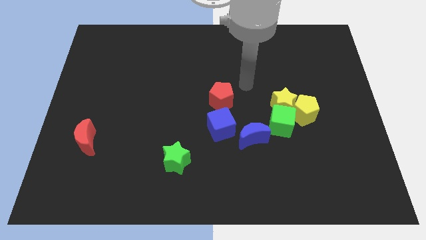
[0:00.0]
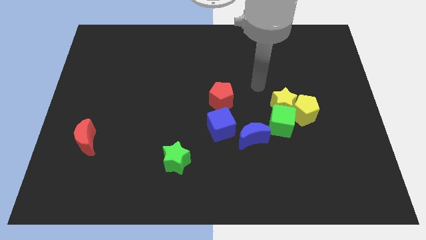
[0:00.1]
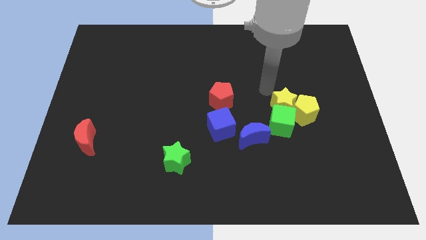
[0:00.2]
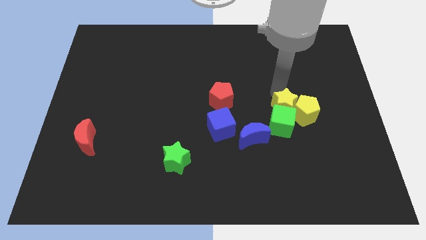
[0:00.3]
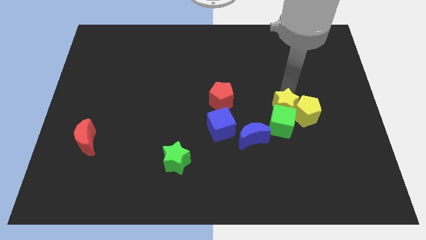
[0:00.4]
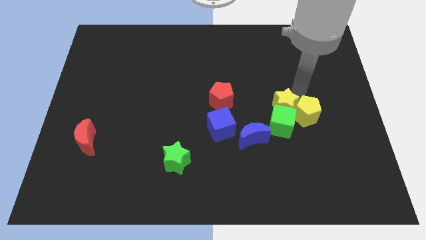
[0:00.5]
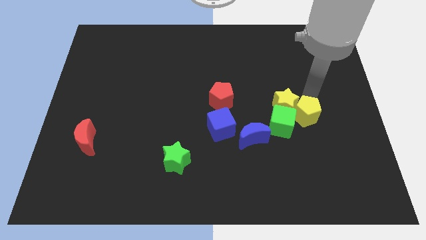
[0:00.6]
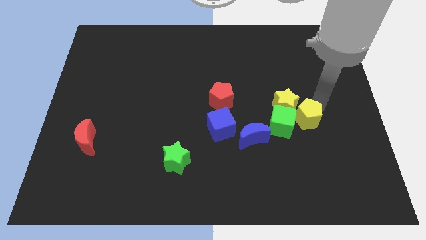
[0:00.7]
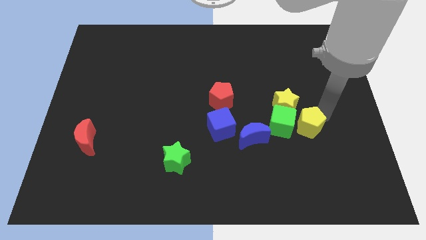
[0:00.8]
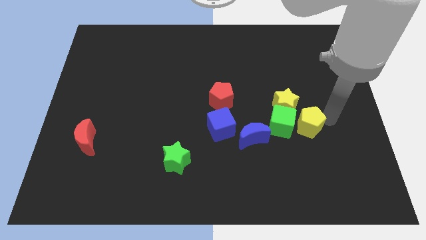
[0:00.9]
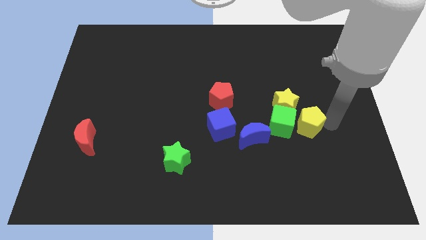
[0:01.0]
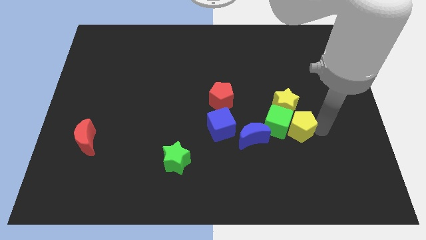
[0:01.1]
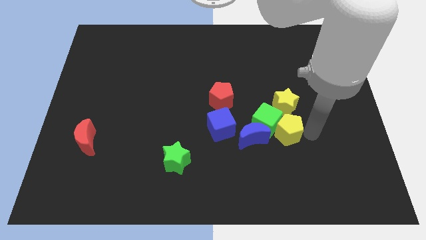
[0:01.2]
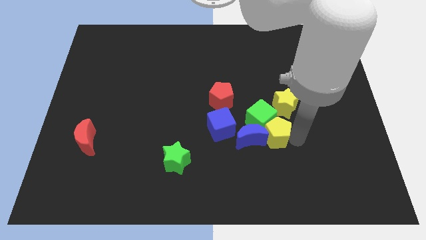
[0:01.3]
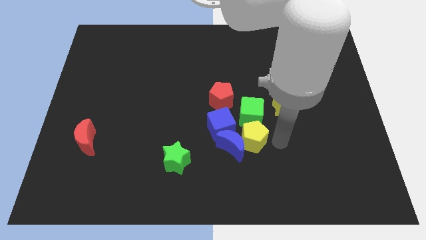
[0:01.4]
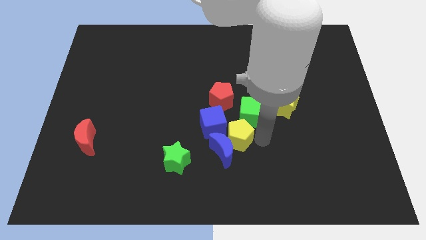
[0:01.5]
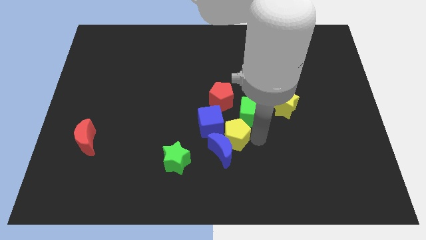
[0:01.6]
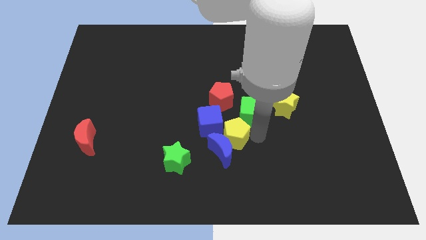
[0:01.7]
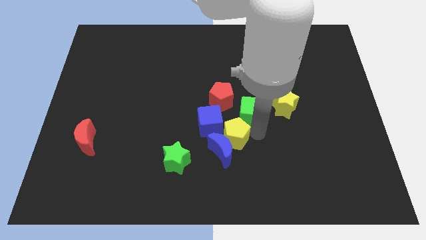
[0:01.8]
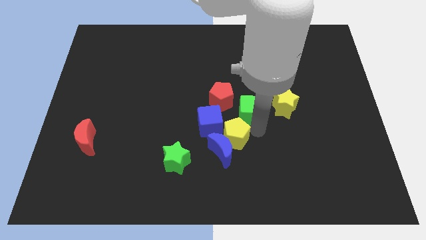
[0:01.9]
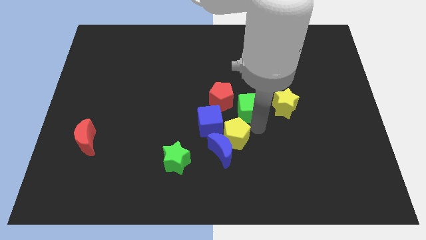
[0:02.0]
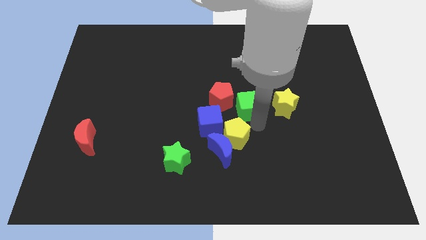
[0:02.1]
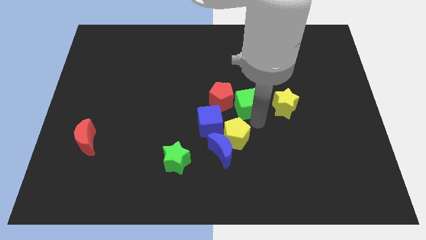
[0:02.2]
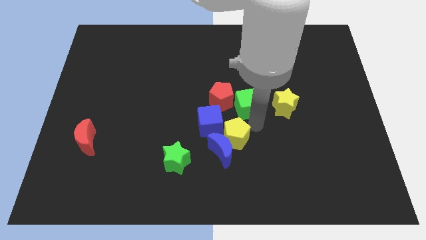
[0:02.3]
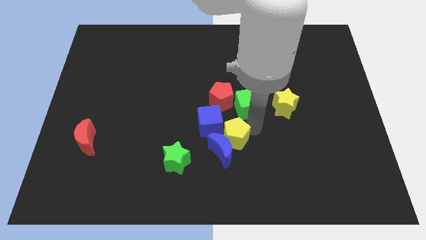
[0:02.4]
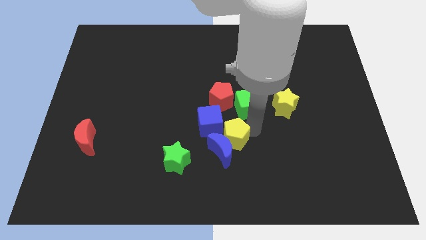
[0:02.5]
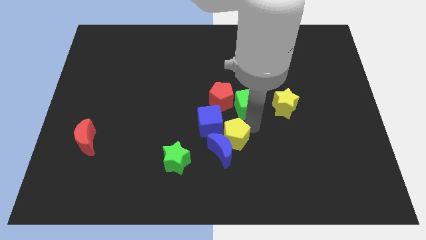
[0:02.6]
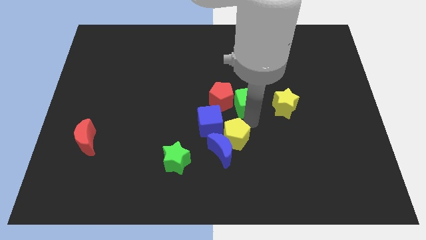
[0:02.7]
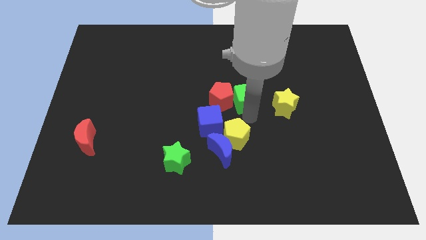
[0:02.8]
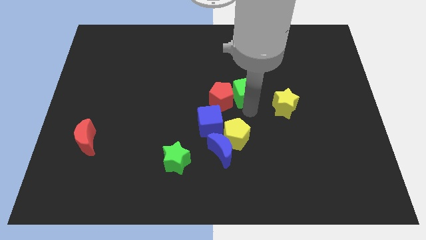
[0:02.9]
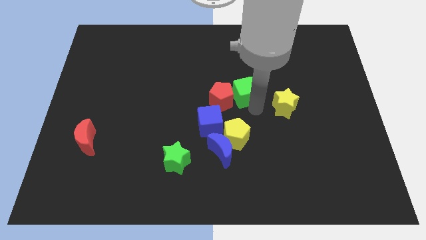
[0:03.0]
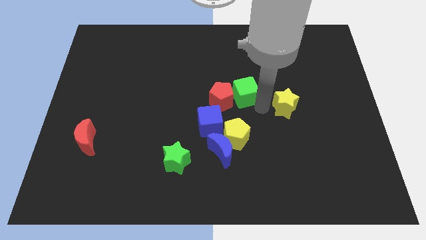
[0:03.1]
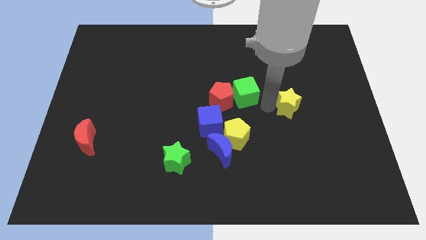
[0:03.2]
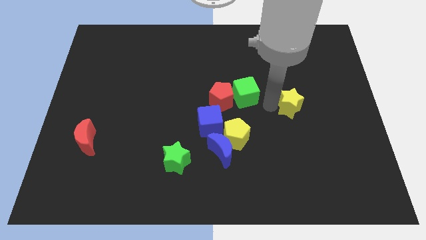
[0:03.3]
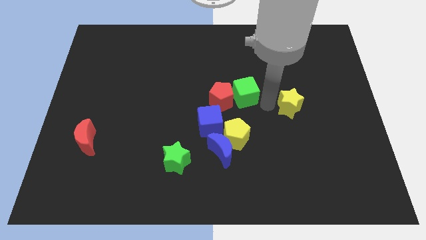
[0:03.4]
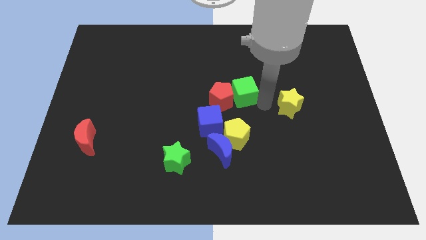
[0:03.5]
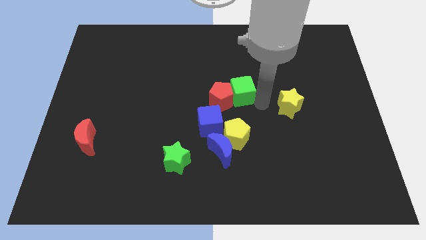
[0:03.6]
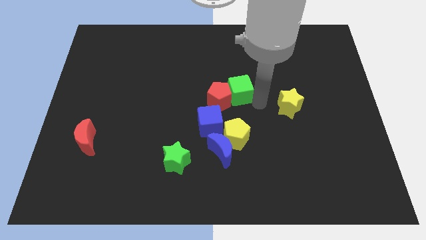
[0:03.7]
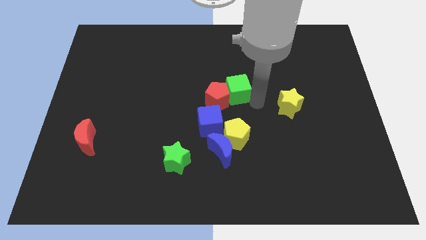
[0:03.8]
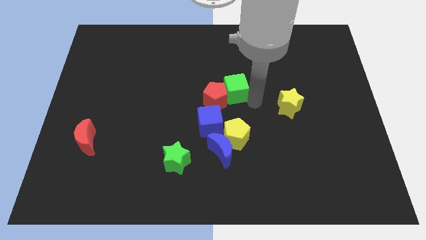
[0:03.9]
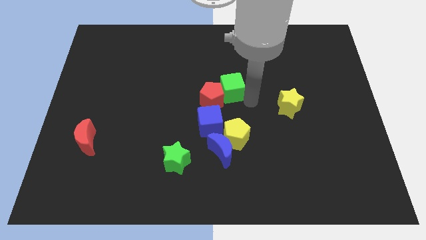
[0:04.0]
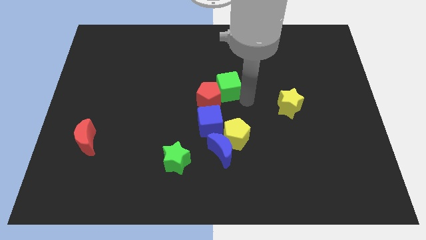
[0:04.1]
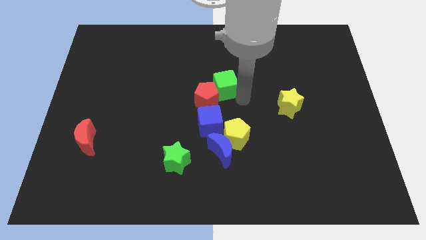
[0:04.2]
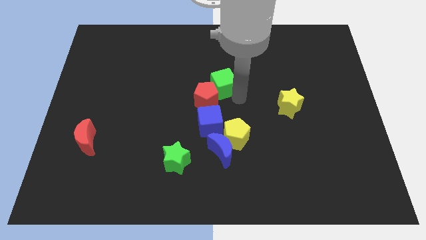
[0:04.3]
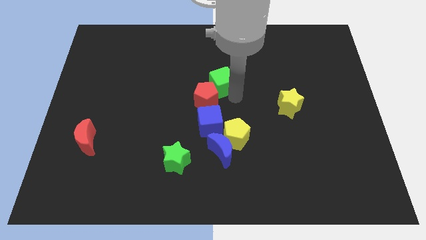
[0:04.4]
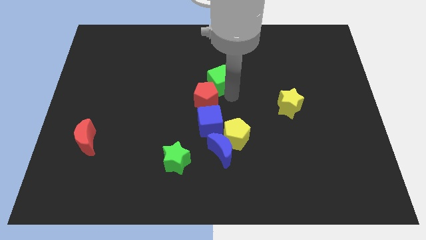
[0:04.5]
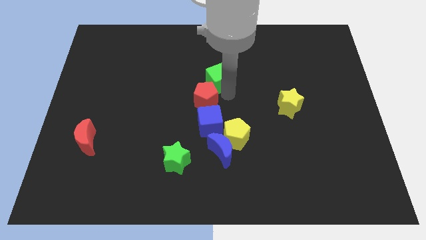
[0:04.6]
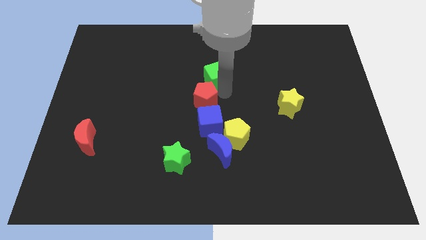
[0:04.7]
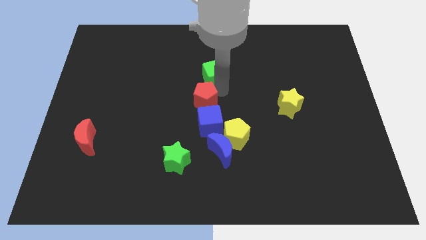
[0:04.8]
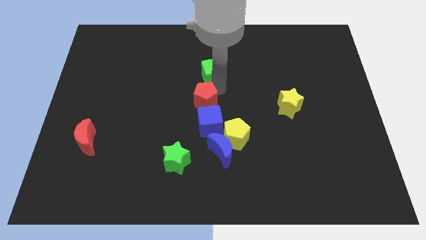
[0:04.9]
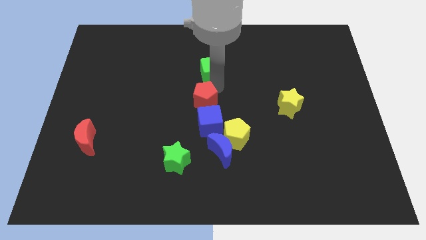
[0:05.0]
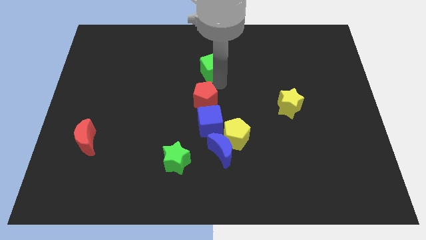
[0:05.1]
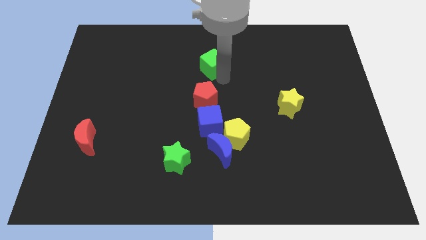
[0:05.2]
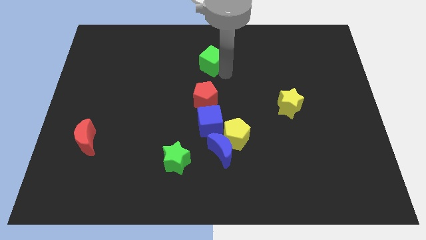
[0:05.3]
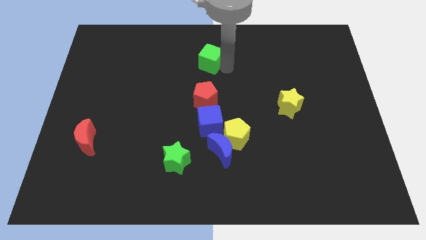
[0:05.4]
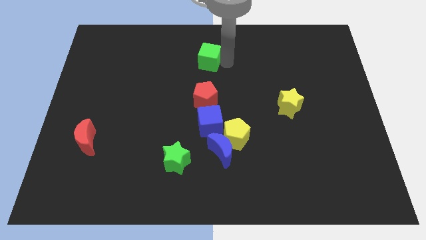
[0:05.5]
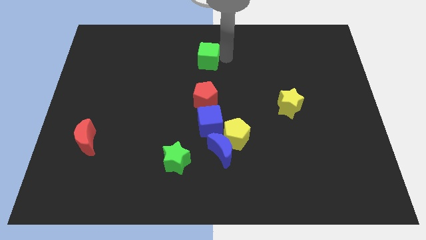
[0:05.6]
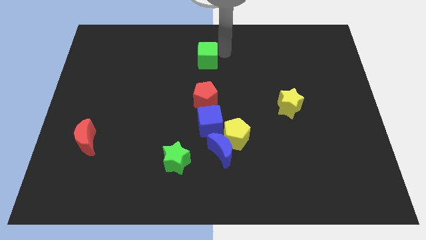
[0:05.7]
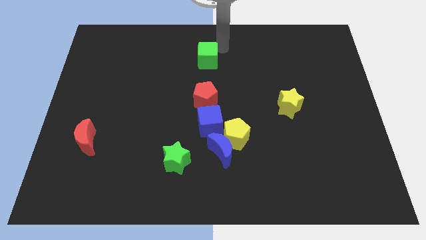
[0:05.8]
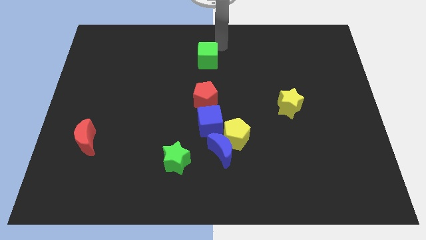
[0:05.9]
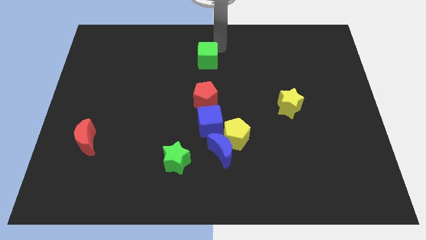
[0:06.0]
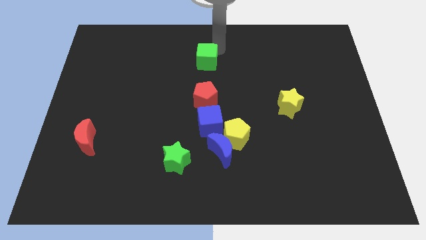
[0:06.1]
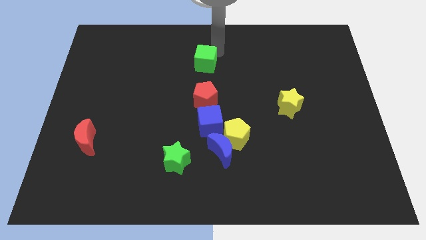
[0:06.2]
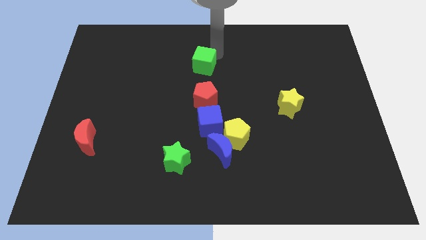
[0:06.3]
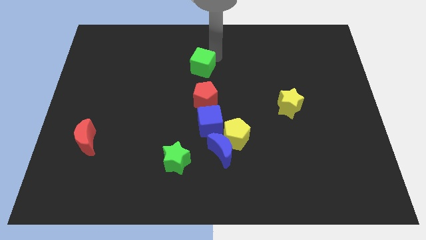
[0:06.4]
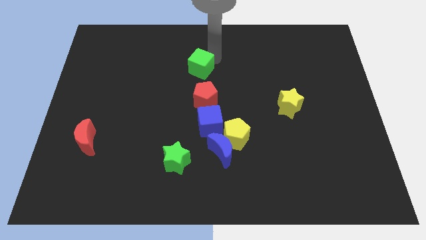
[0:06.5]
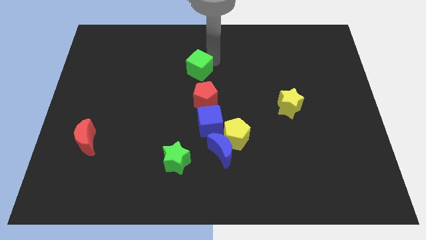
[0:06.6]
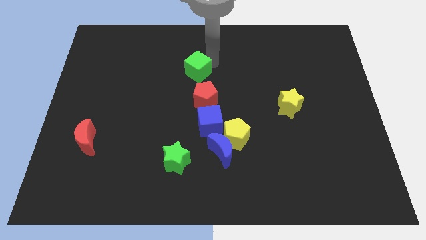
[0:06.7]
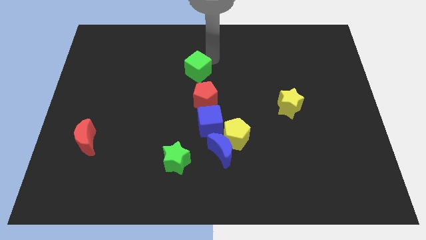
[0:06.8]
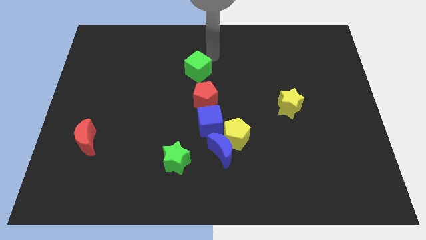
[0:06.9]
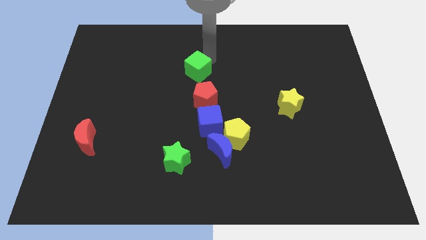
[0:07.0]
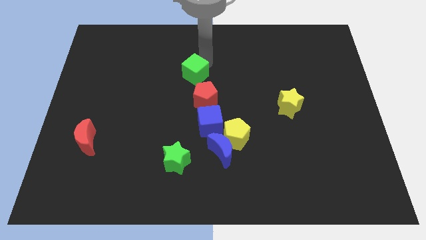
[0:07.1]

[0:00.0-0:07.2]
push the green cube to the top left of the red pentagon
